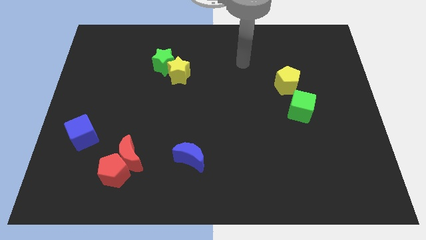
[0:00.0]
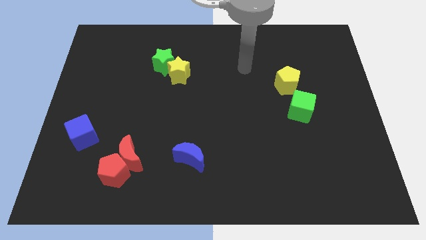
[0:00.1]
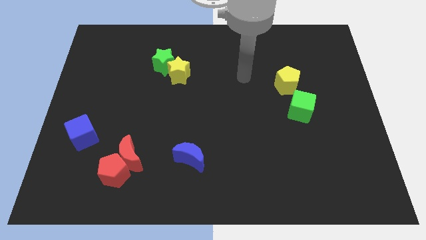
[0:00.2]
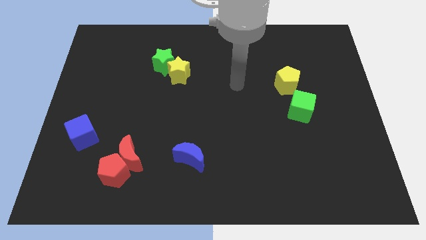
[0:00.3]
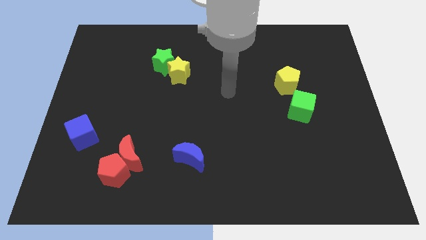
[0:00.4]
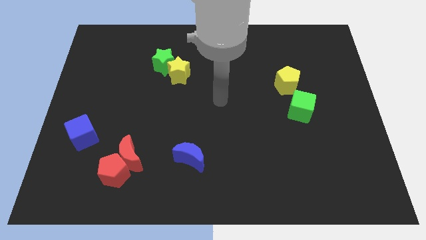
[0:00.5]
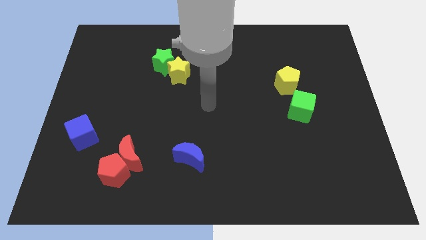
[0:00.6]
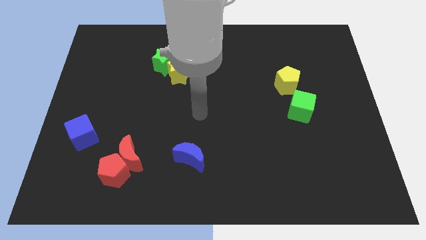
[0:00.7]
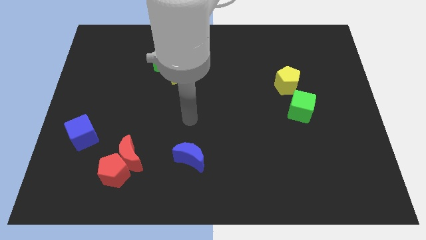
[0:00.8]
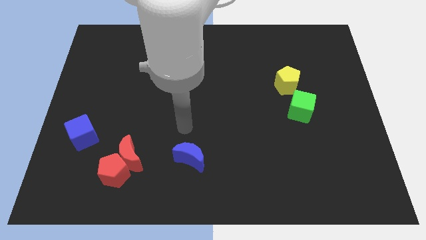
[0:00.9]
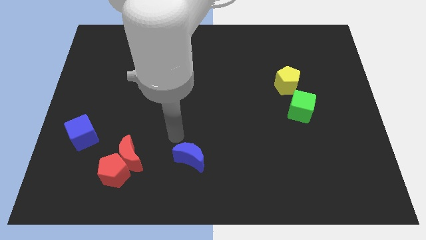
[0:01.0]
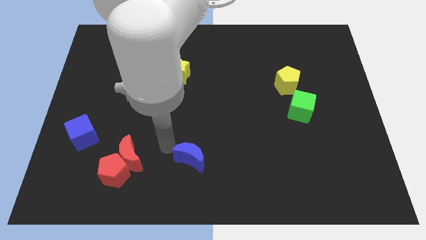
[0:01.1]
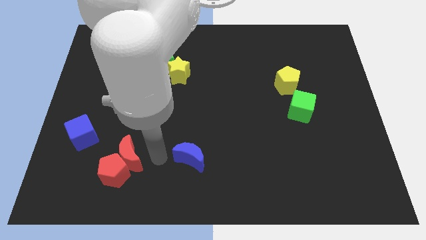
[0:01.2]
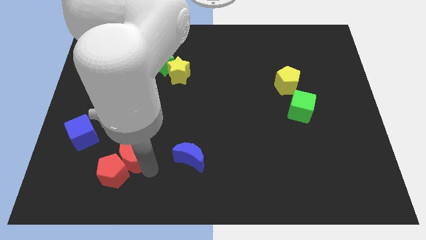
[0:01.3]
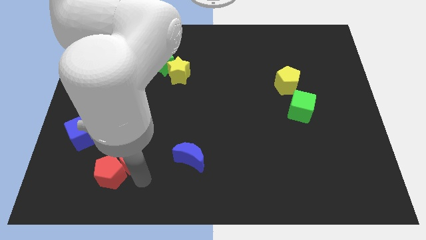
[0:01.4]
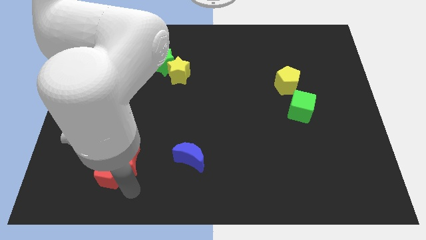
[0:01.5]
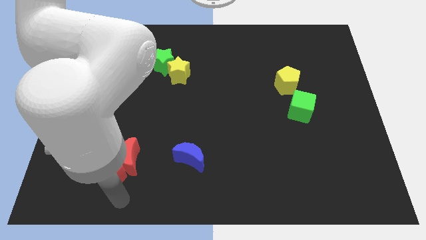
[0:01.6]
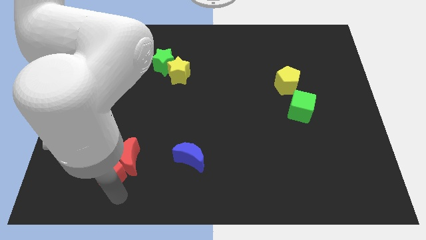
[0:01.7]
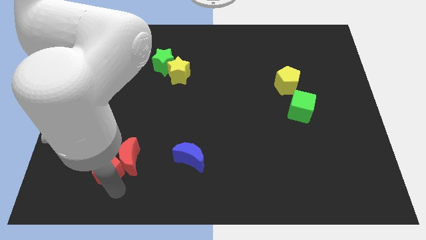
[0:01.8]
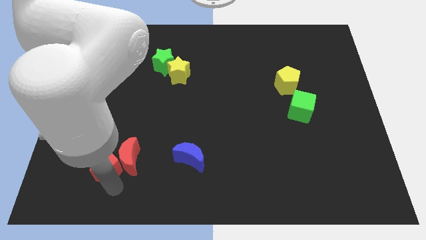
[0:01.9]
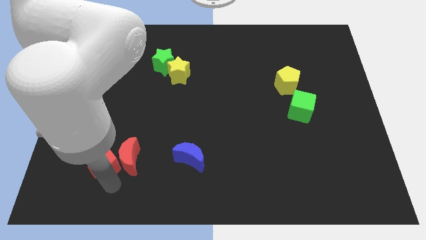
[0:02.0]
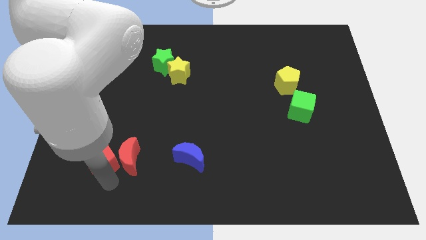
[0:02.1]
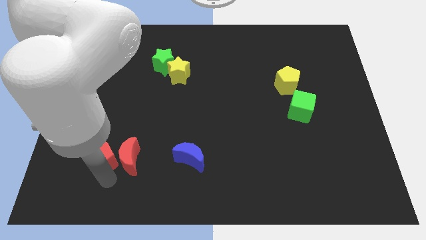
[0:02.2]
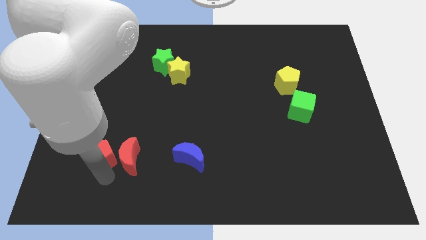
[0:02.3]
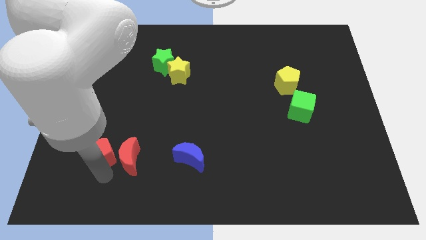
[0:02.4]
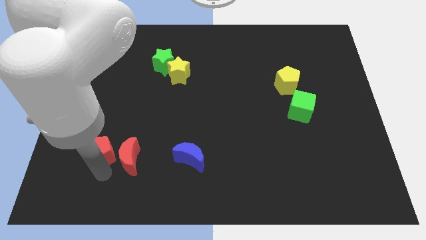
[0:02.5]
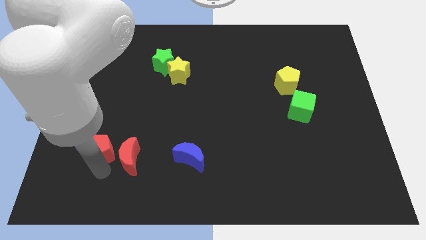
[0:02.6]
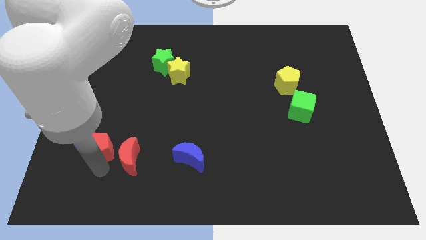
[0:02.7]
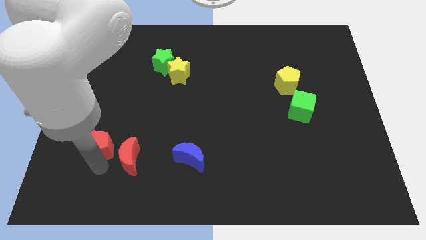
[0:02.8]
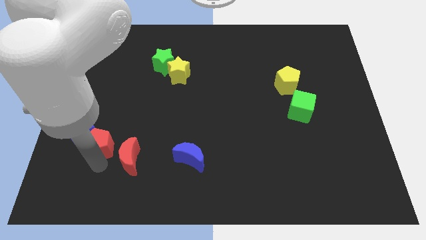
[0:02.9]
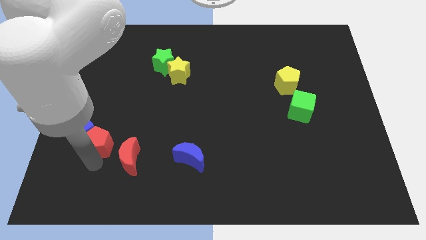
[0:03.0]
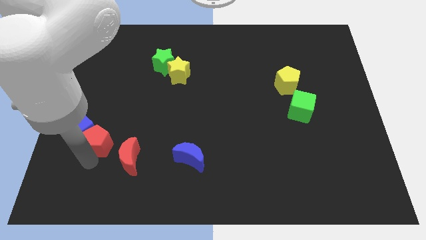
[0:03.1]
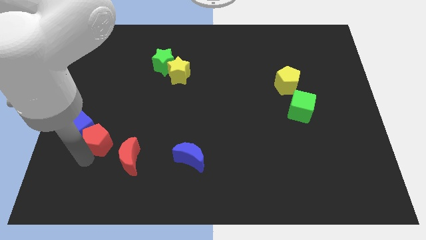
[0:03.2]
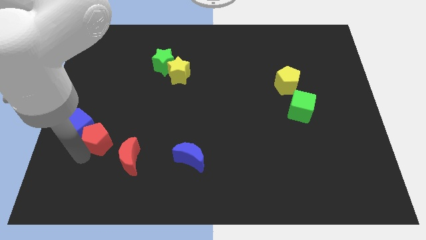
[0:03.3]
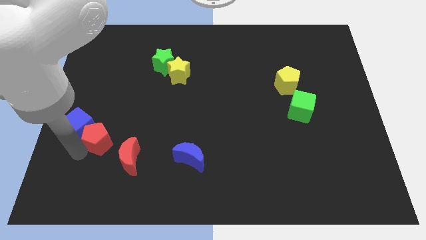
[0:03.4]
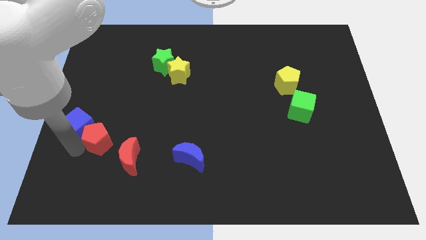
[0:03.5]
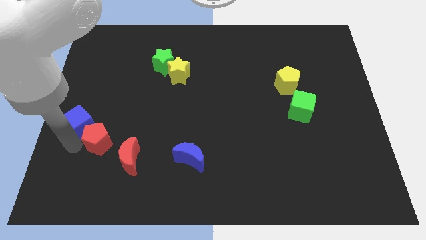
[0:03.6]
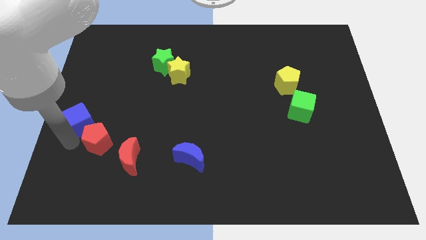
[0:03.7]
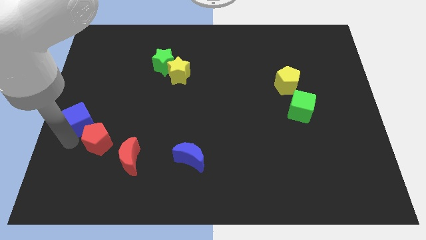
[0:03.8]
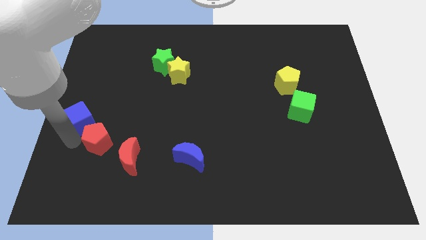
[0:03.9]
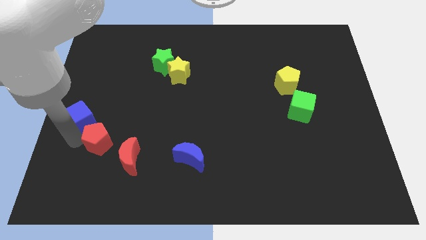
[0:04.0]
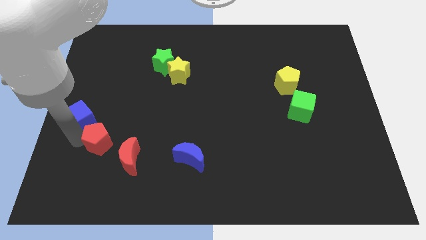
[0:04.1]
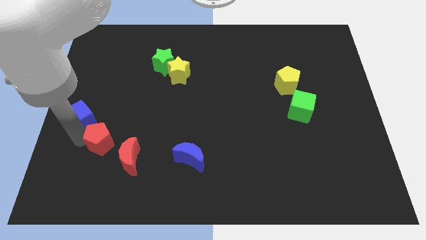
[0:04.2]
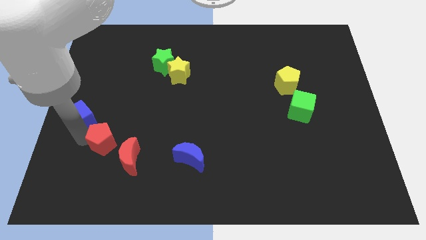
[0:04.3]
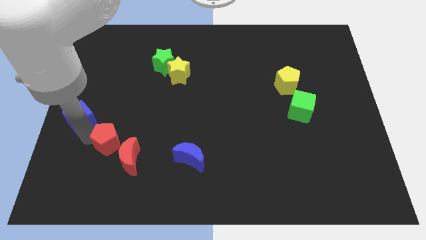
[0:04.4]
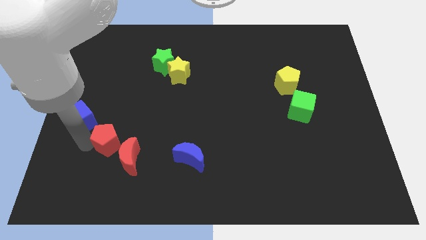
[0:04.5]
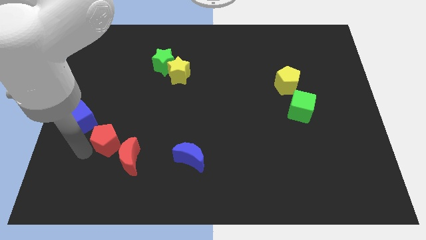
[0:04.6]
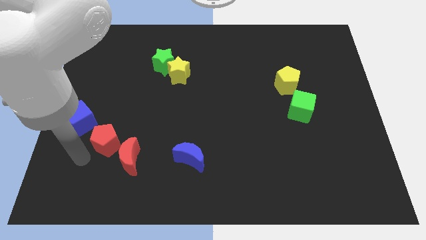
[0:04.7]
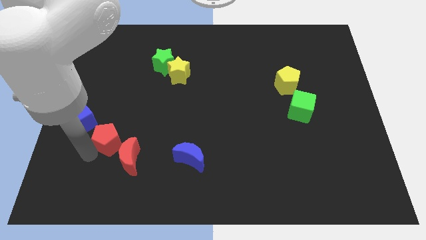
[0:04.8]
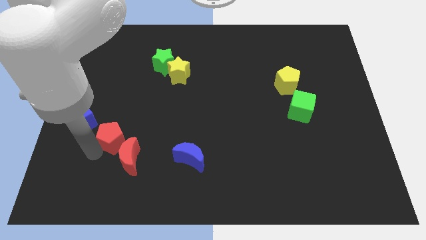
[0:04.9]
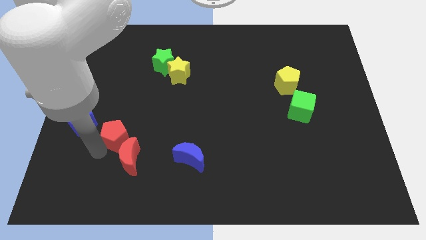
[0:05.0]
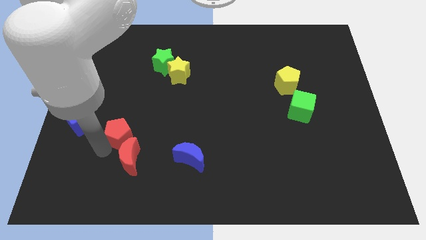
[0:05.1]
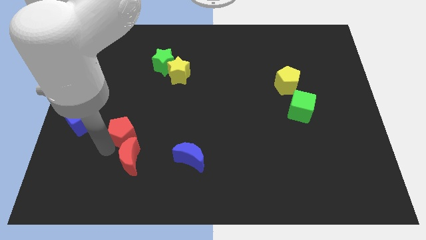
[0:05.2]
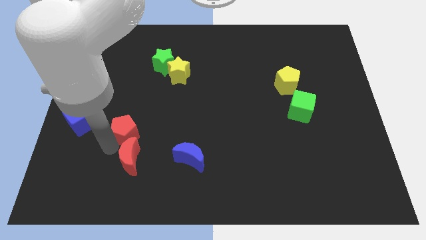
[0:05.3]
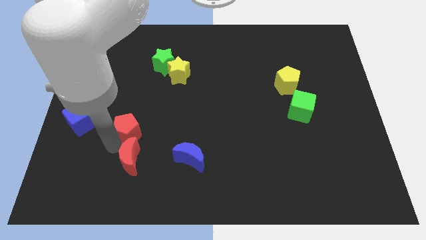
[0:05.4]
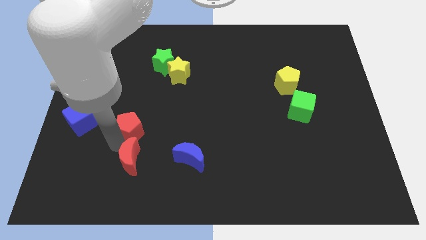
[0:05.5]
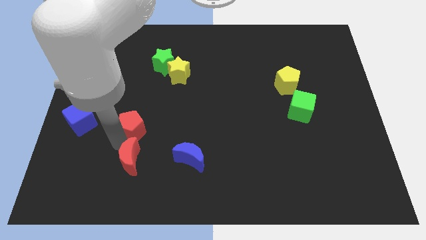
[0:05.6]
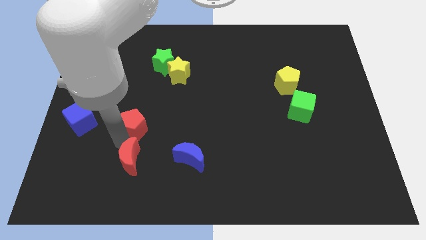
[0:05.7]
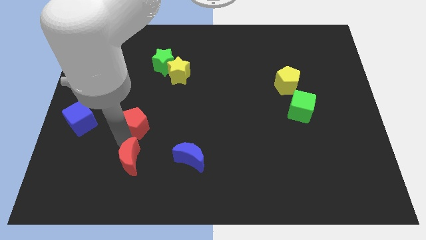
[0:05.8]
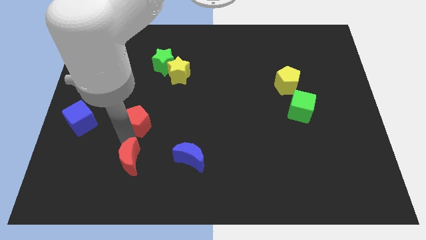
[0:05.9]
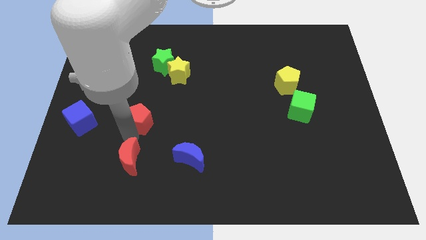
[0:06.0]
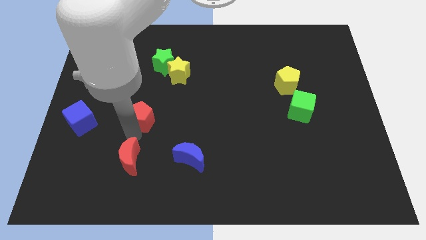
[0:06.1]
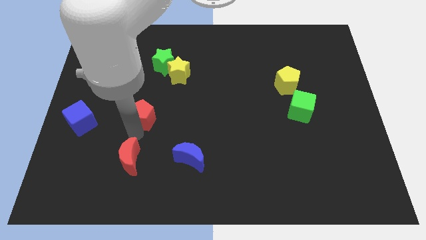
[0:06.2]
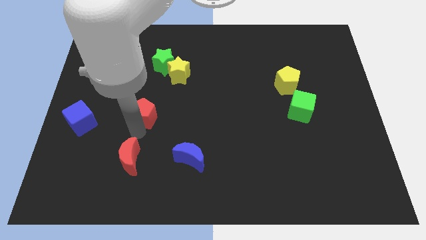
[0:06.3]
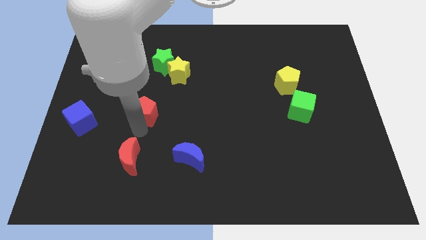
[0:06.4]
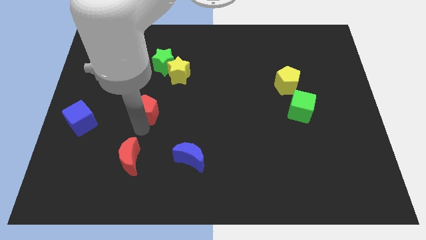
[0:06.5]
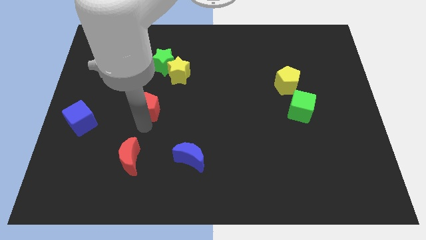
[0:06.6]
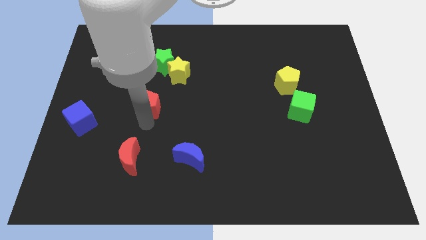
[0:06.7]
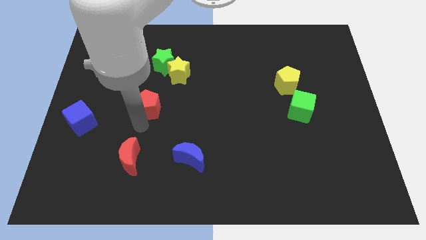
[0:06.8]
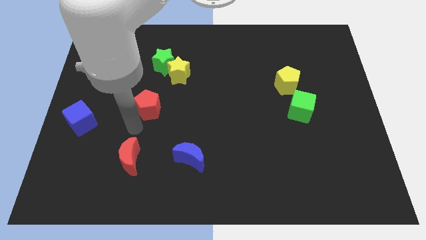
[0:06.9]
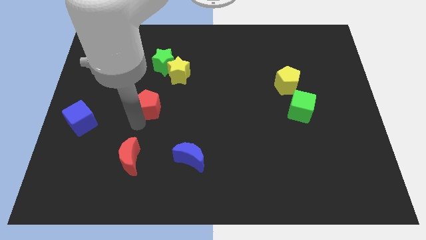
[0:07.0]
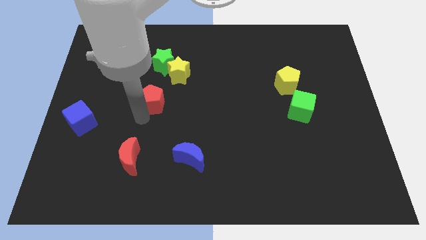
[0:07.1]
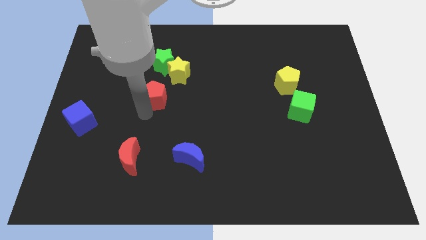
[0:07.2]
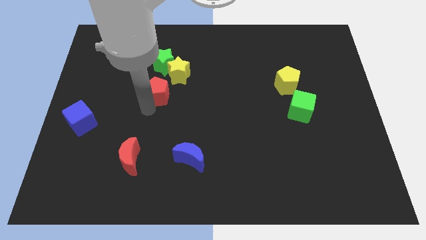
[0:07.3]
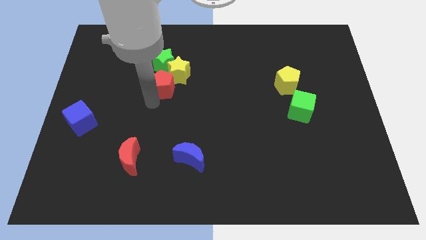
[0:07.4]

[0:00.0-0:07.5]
slide the red pentagon next to the yellow star
